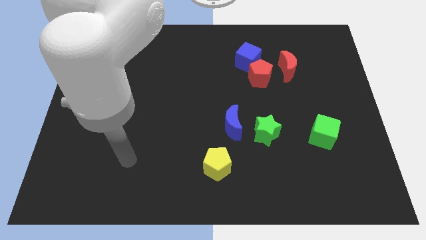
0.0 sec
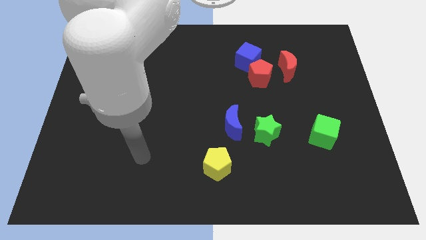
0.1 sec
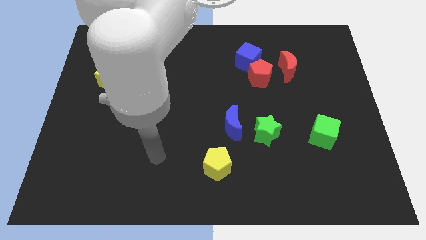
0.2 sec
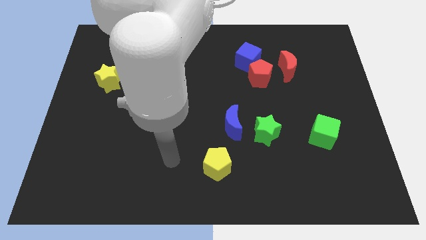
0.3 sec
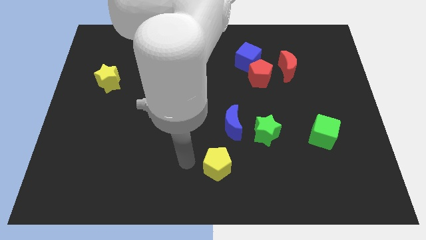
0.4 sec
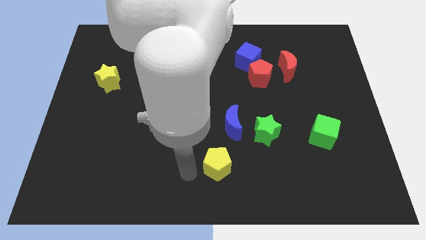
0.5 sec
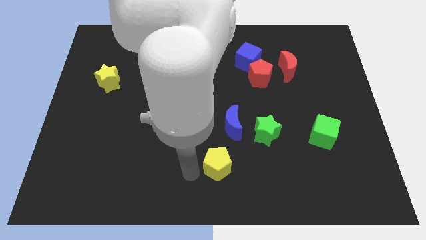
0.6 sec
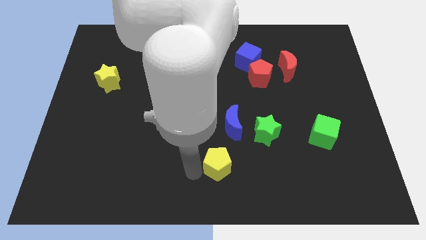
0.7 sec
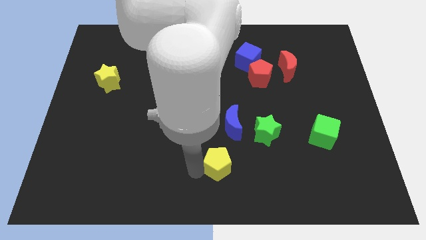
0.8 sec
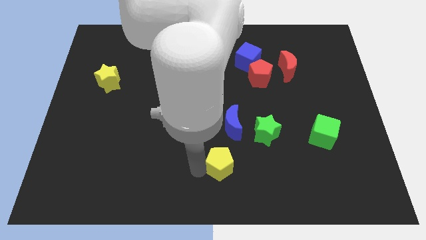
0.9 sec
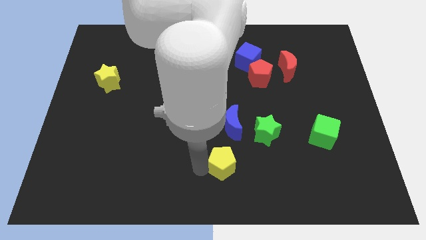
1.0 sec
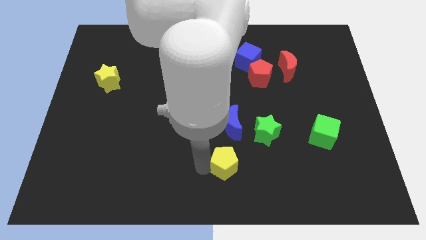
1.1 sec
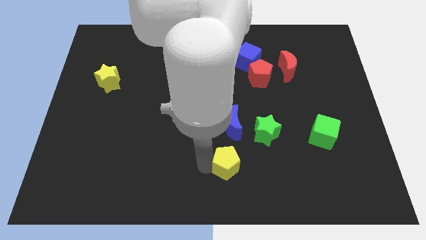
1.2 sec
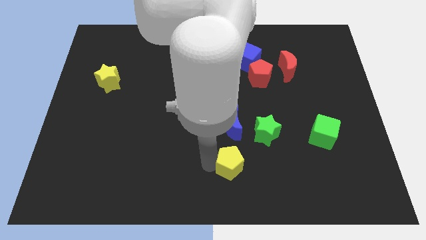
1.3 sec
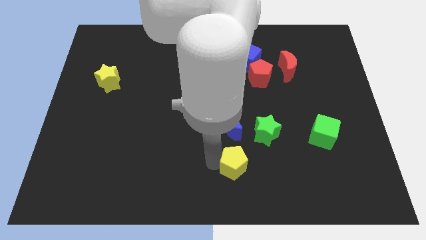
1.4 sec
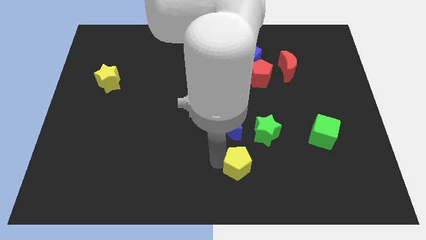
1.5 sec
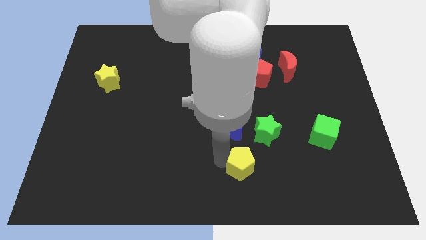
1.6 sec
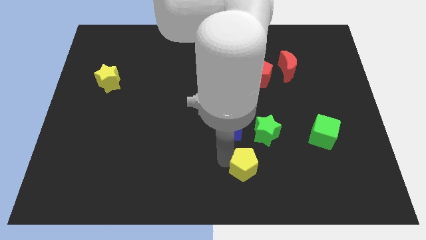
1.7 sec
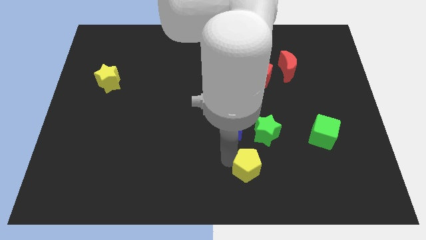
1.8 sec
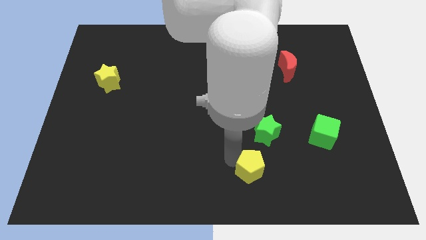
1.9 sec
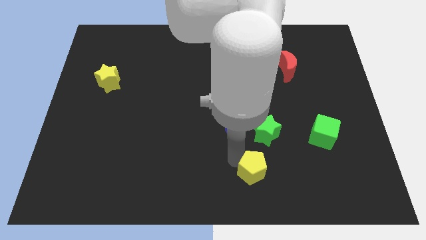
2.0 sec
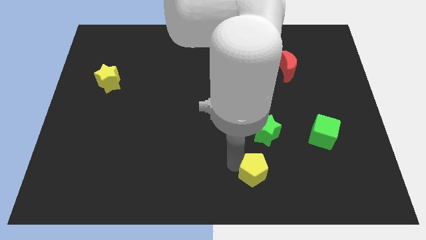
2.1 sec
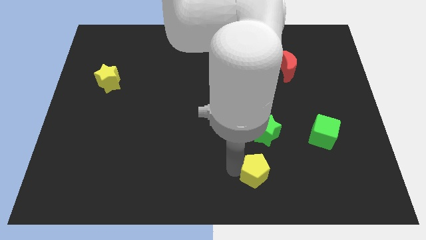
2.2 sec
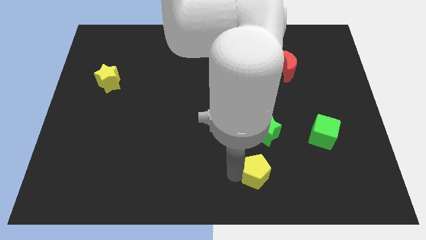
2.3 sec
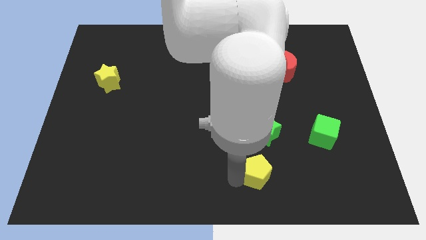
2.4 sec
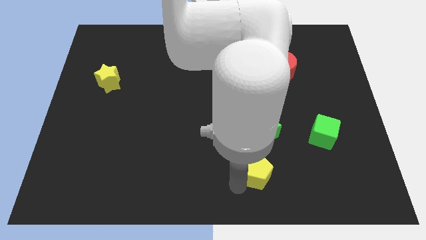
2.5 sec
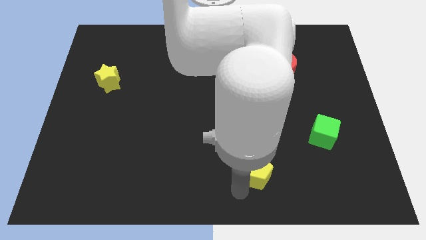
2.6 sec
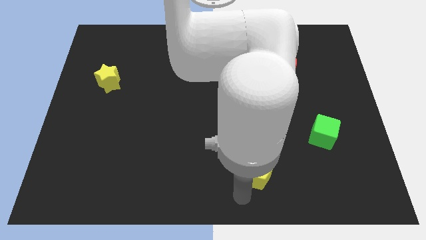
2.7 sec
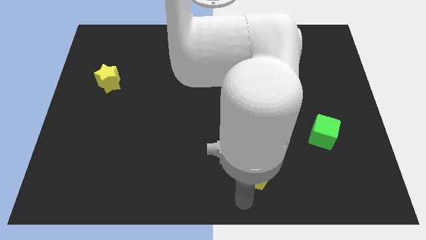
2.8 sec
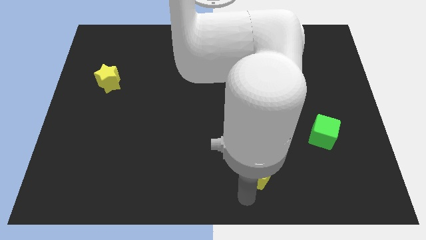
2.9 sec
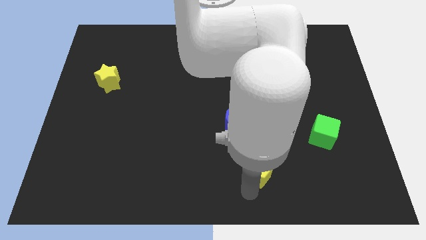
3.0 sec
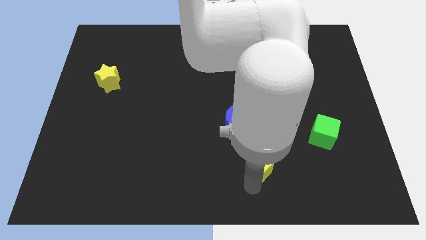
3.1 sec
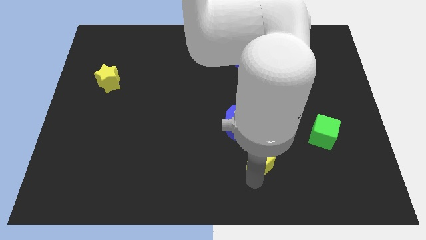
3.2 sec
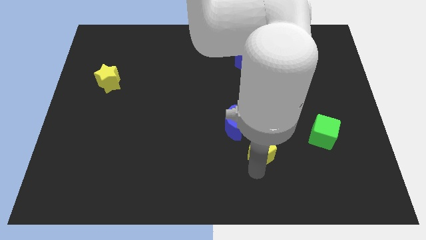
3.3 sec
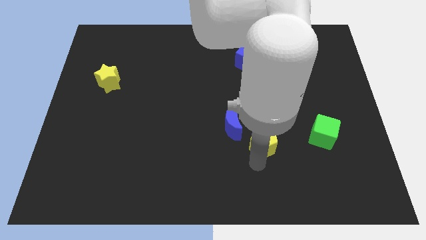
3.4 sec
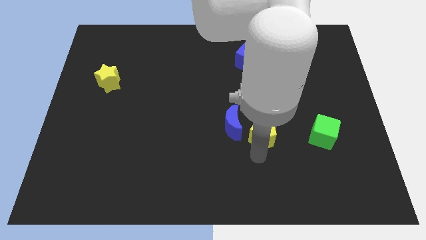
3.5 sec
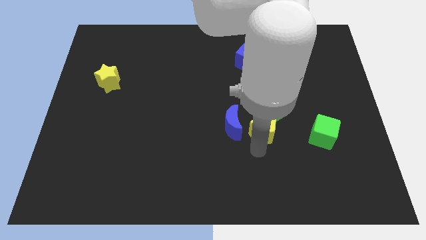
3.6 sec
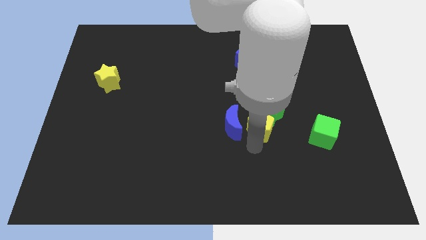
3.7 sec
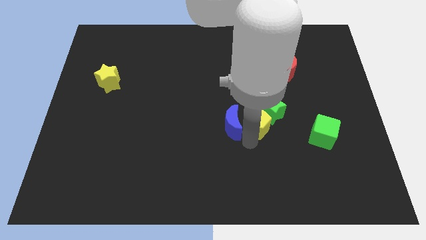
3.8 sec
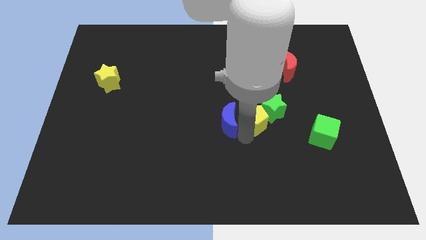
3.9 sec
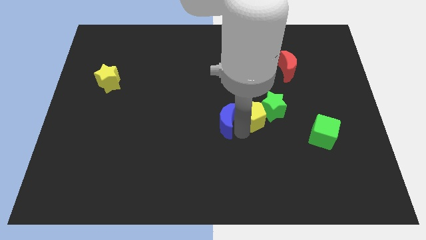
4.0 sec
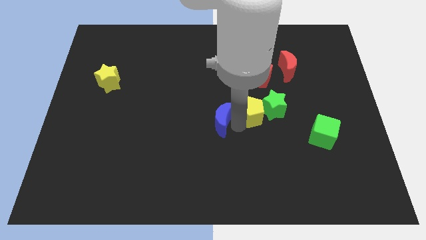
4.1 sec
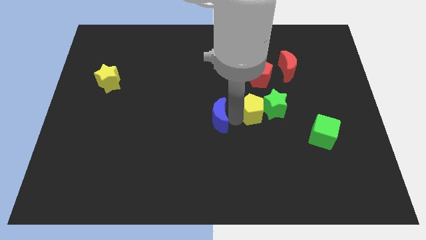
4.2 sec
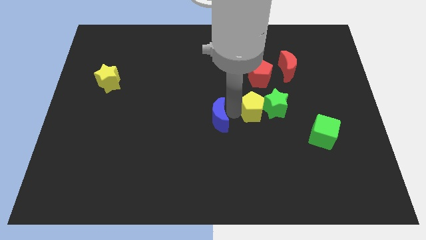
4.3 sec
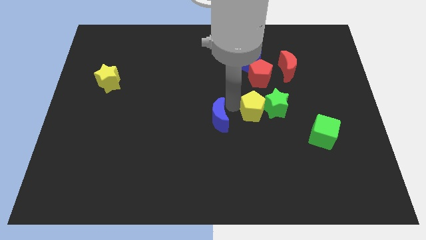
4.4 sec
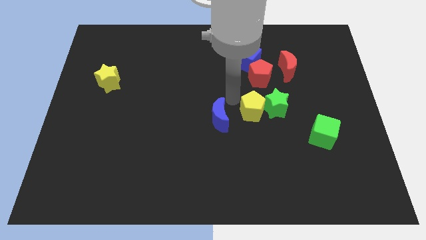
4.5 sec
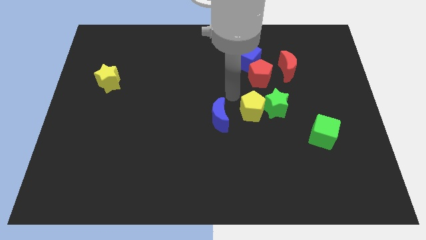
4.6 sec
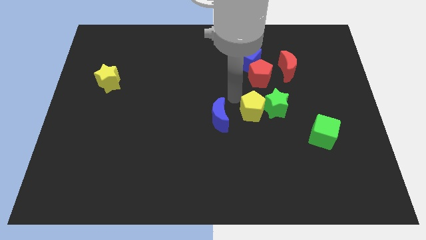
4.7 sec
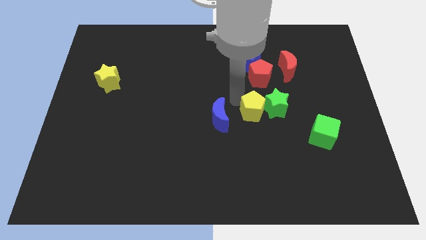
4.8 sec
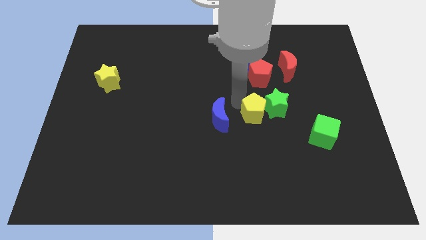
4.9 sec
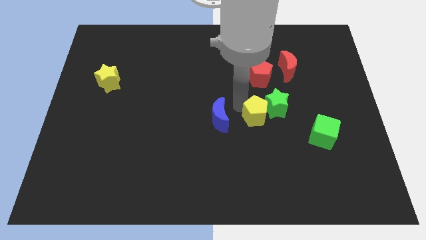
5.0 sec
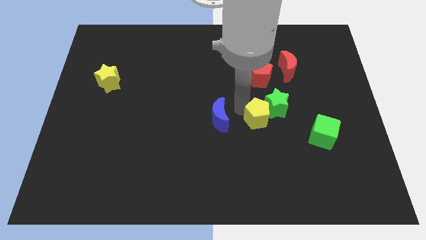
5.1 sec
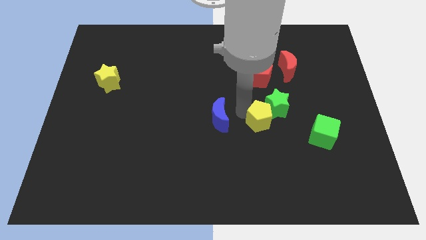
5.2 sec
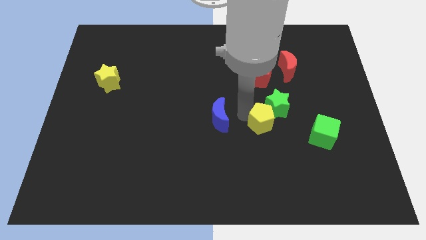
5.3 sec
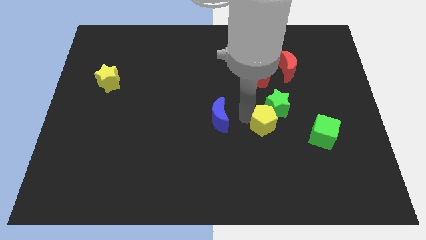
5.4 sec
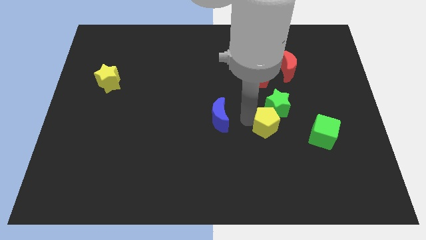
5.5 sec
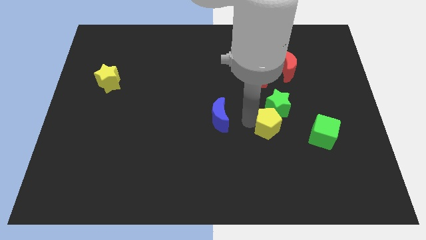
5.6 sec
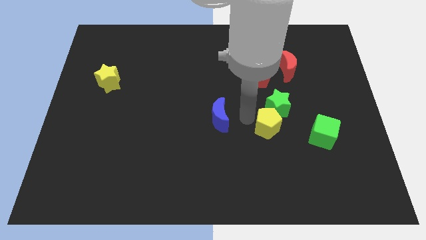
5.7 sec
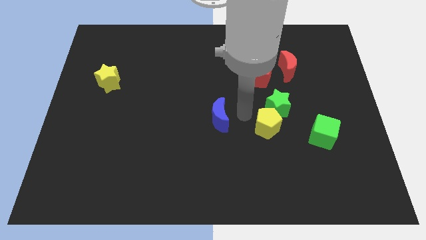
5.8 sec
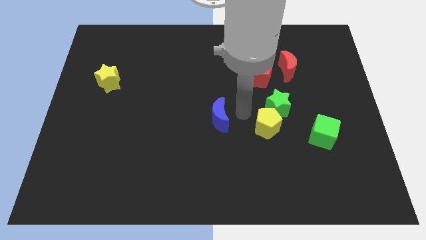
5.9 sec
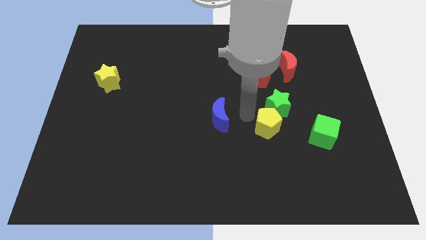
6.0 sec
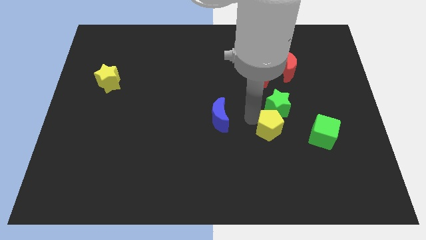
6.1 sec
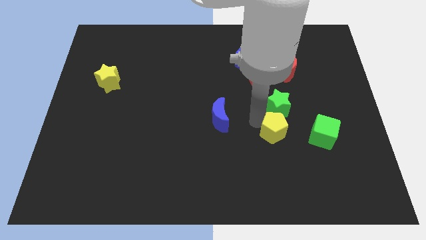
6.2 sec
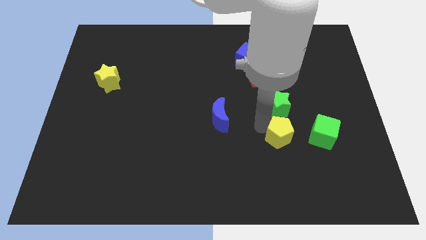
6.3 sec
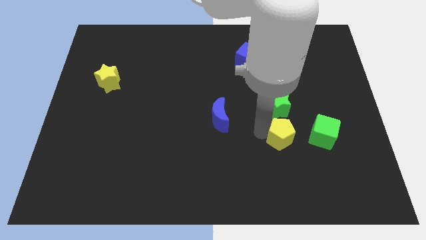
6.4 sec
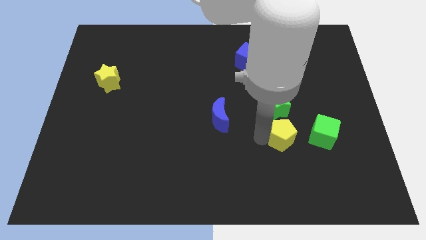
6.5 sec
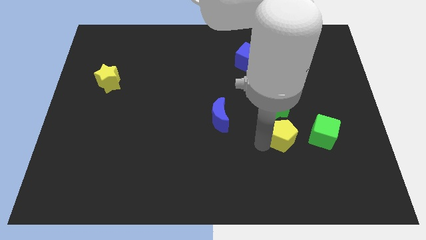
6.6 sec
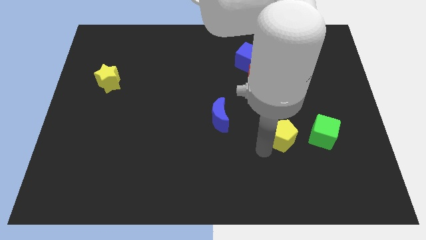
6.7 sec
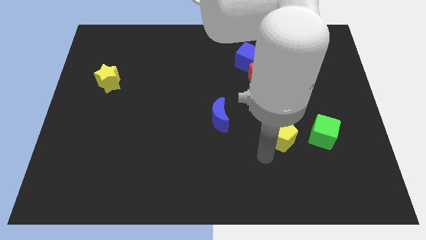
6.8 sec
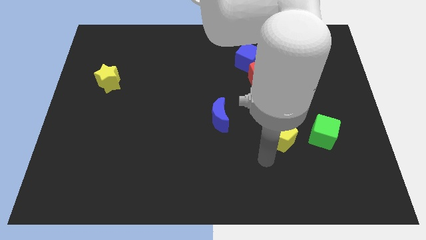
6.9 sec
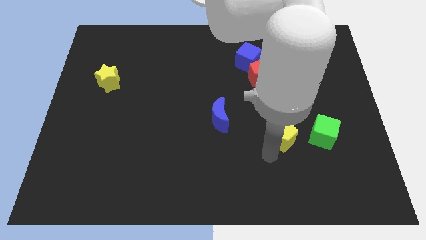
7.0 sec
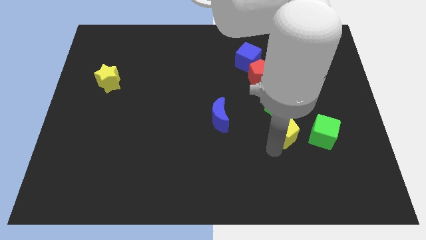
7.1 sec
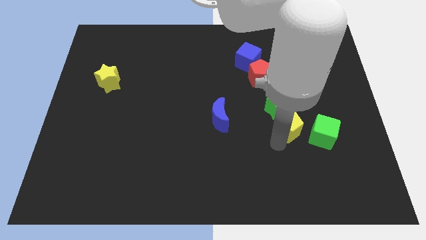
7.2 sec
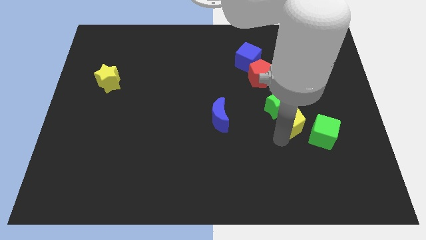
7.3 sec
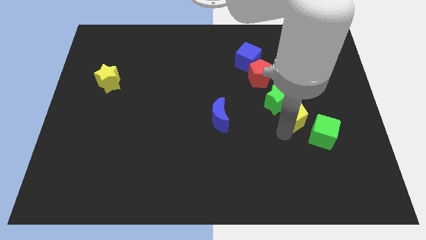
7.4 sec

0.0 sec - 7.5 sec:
push the yellow pentagon diagonally up and right

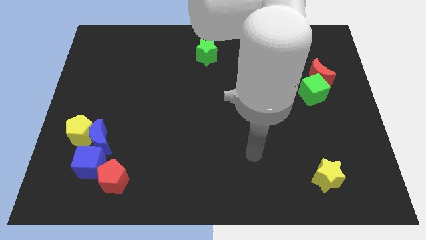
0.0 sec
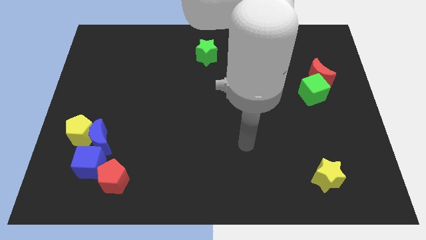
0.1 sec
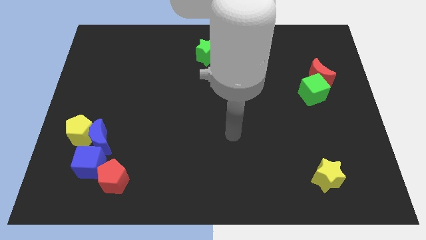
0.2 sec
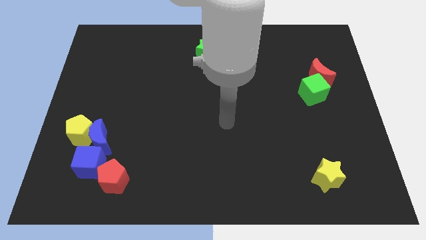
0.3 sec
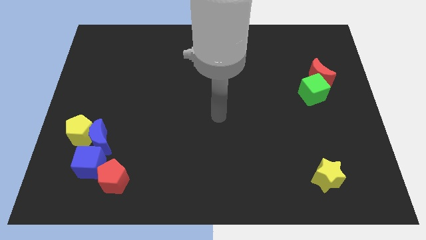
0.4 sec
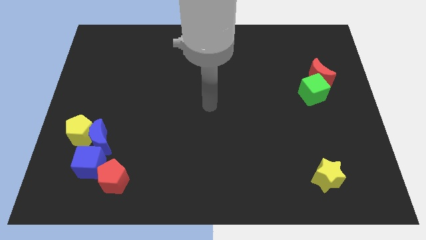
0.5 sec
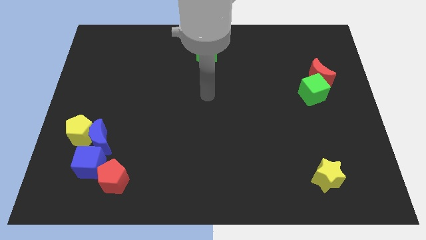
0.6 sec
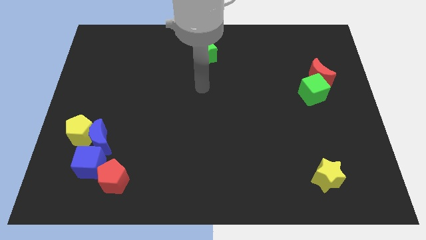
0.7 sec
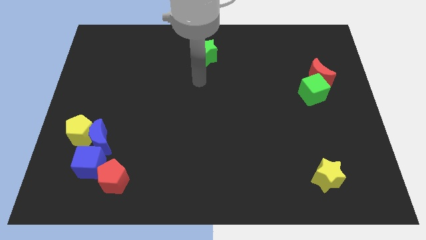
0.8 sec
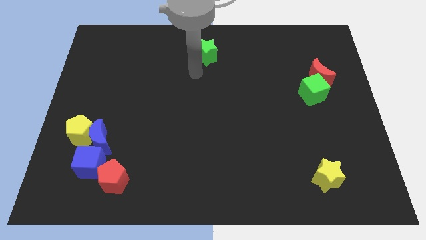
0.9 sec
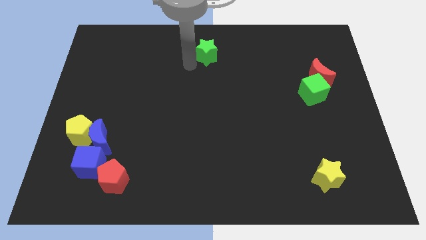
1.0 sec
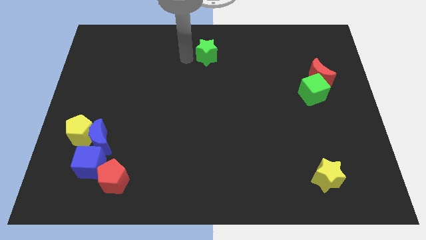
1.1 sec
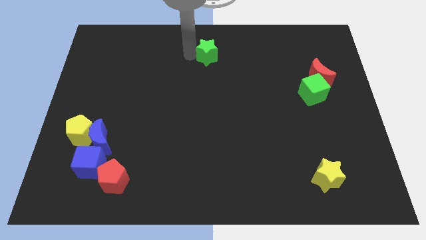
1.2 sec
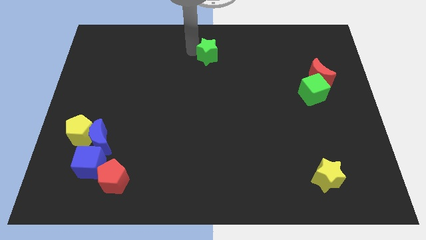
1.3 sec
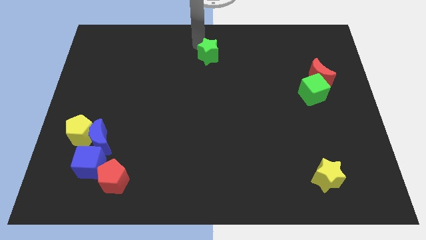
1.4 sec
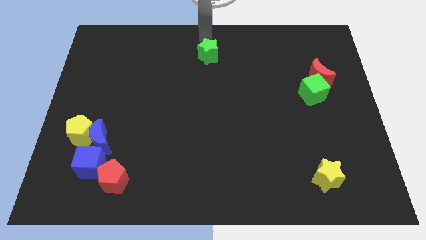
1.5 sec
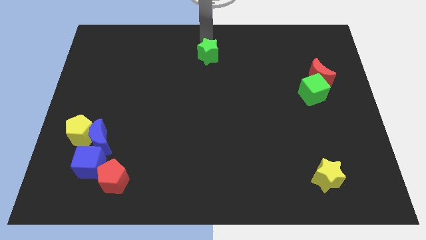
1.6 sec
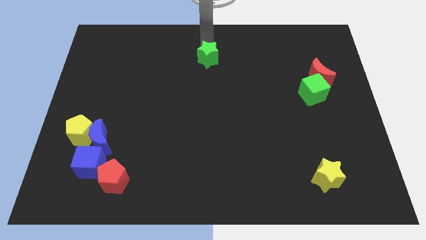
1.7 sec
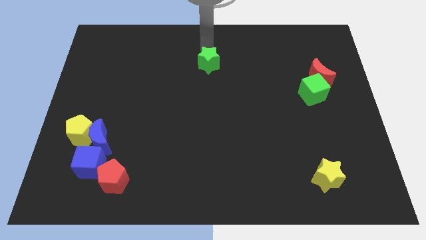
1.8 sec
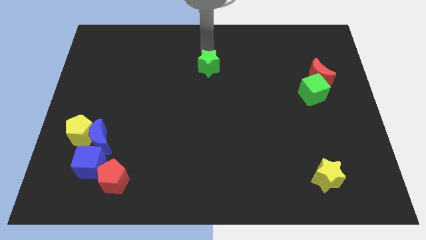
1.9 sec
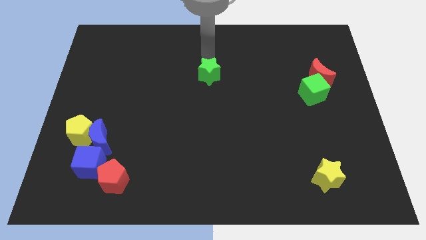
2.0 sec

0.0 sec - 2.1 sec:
push the green star somewhat down
